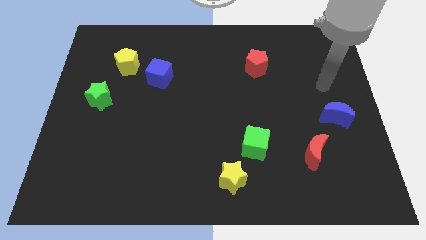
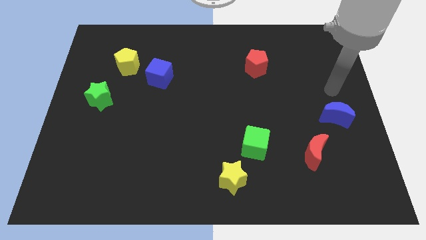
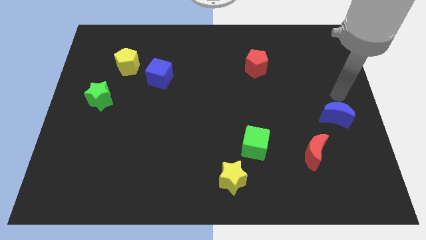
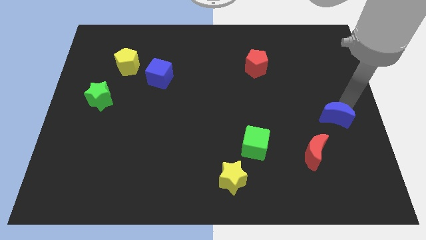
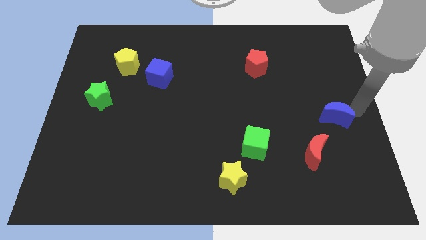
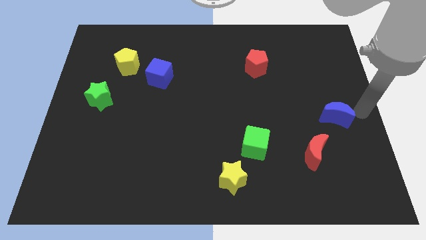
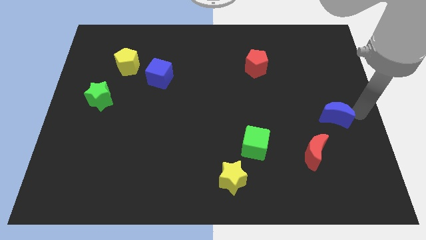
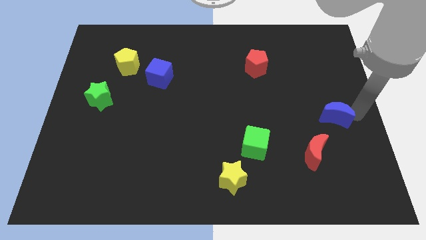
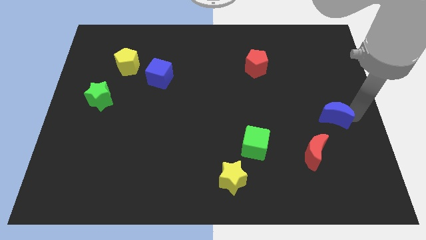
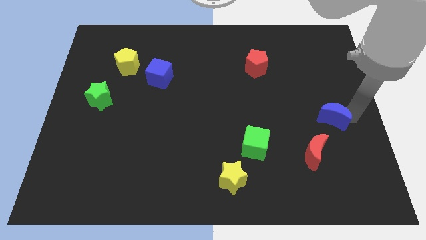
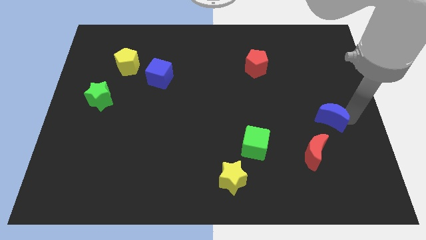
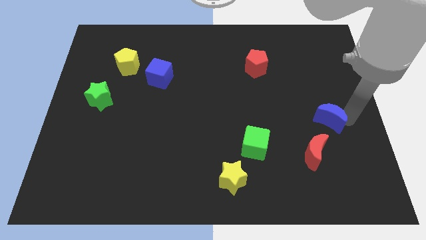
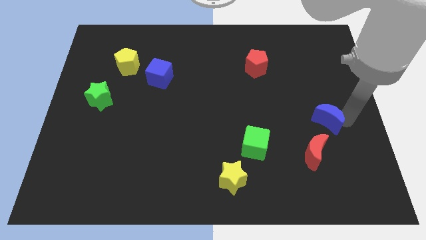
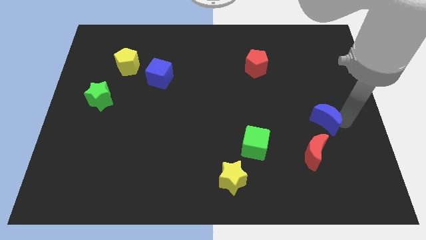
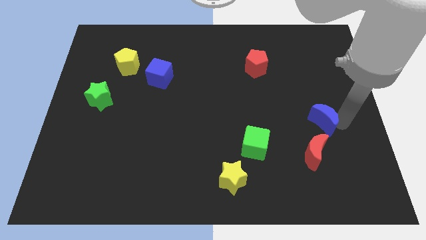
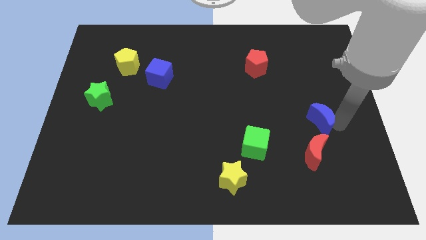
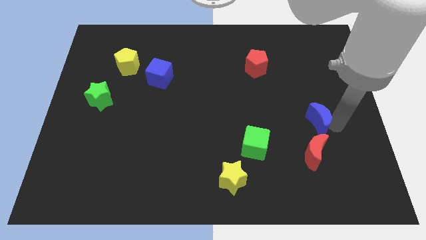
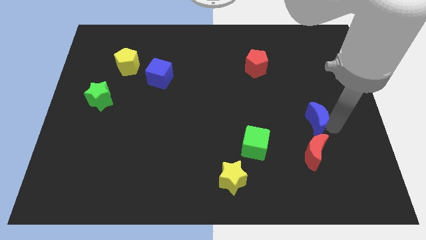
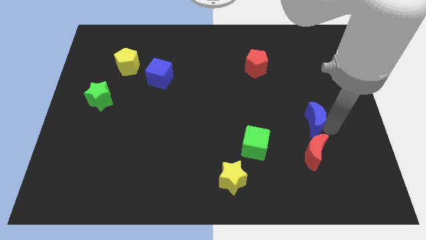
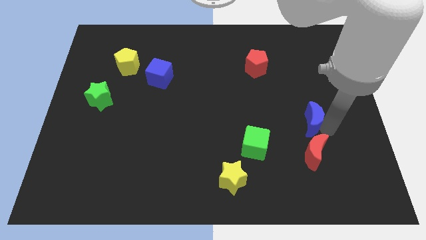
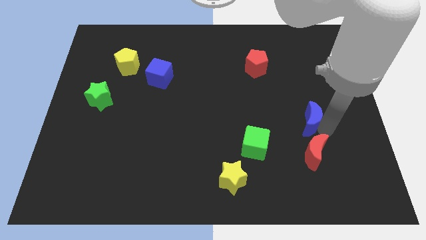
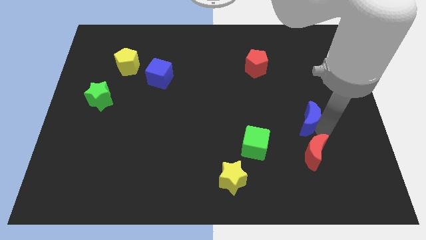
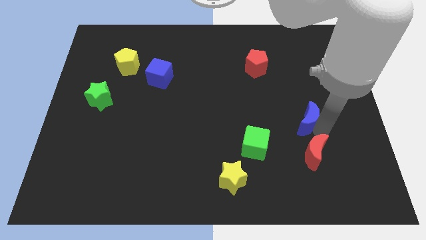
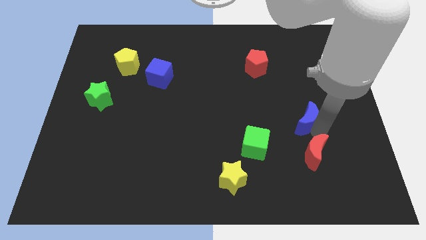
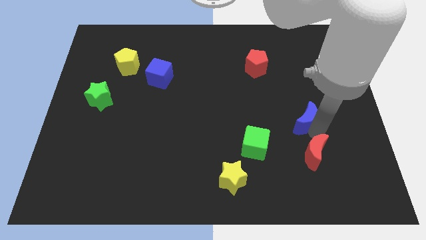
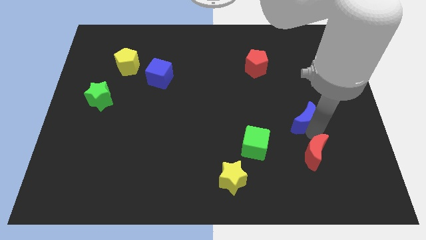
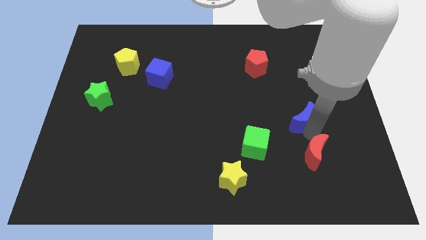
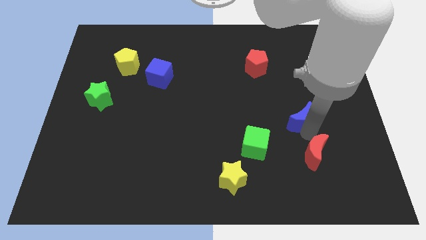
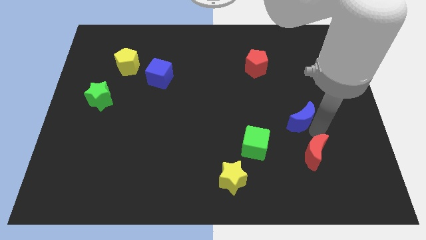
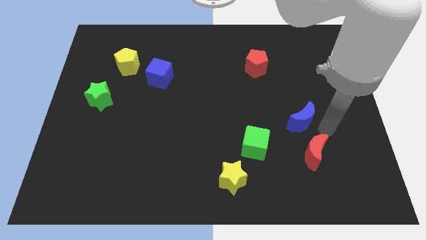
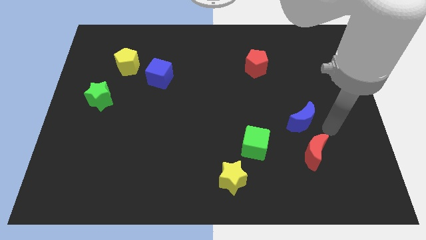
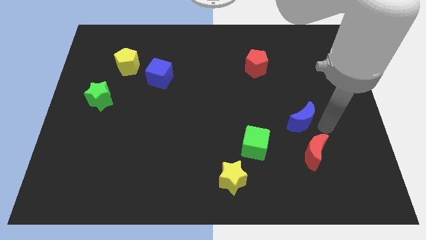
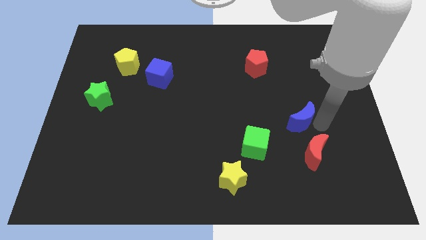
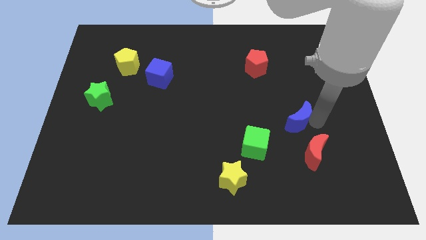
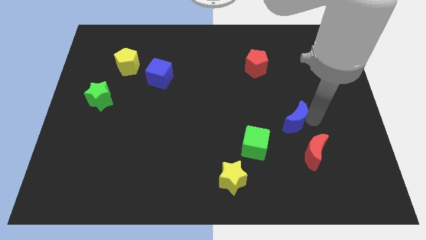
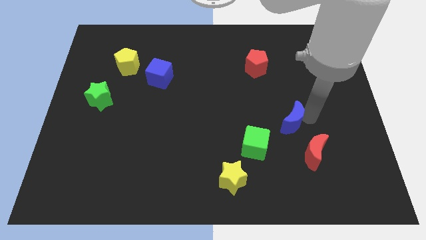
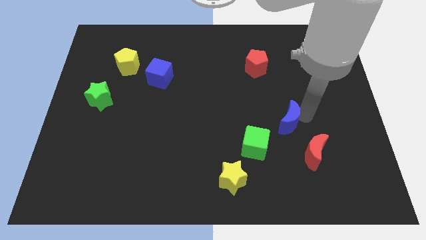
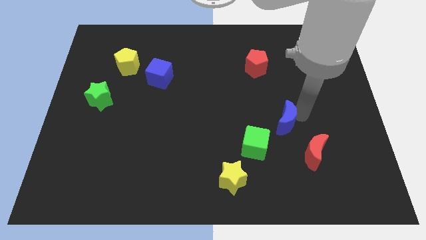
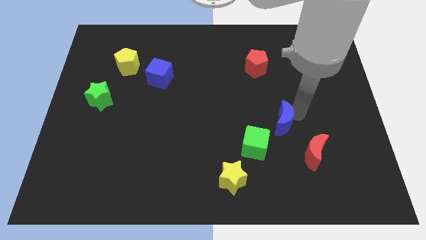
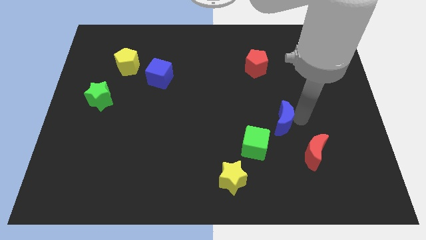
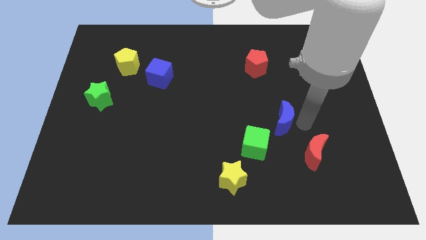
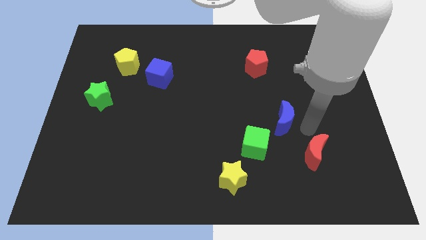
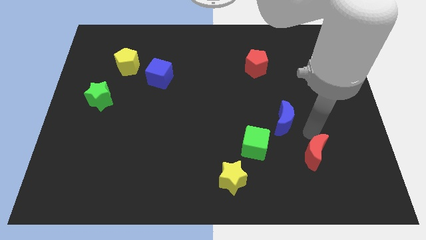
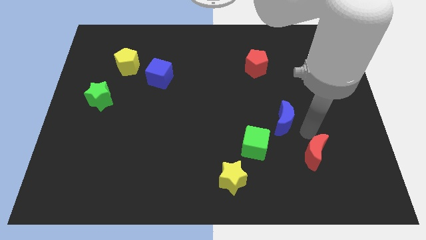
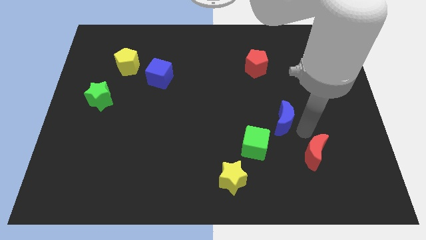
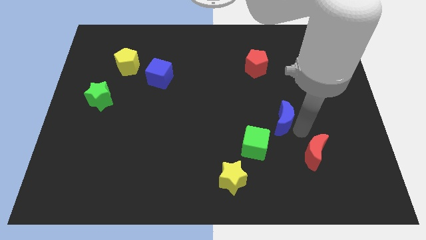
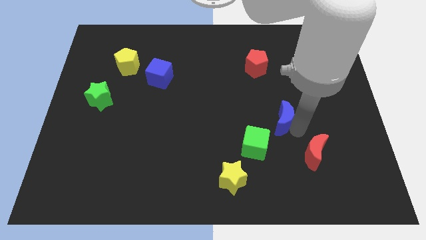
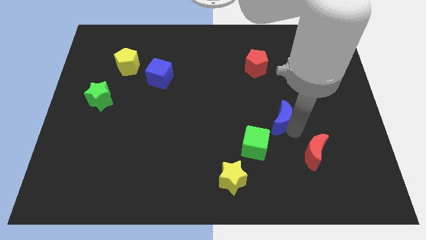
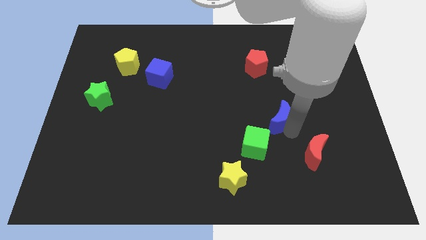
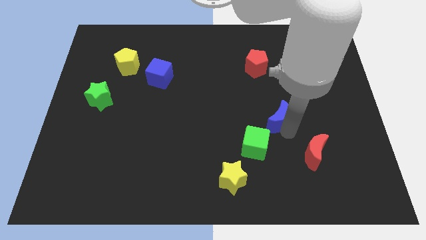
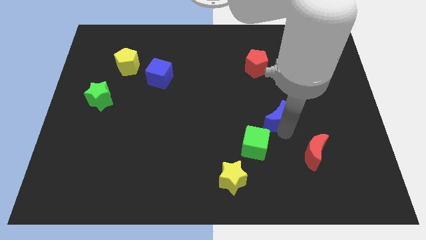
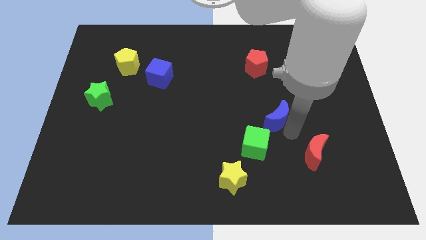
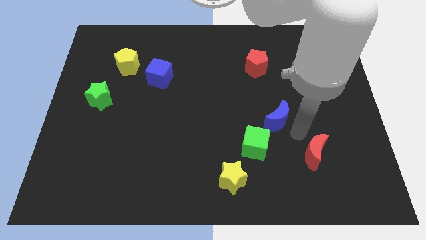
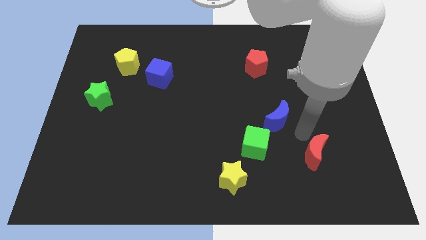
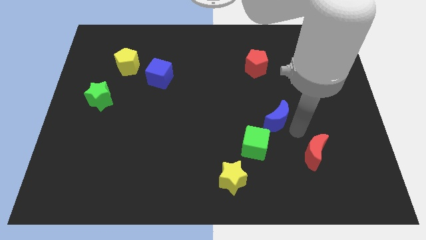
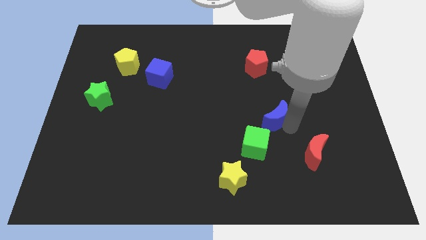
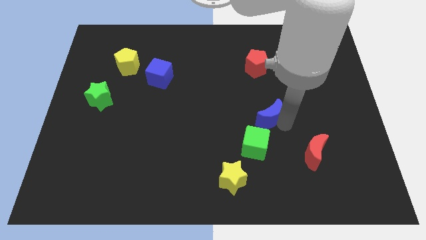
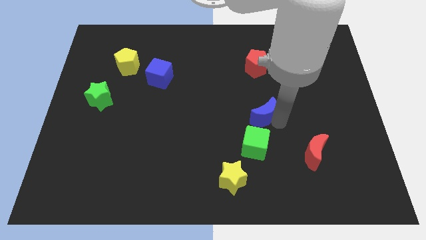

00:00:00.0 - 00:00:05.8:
slide the blue moon to the middle of the board

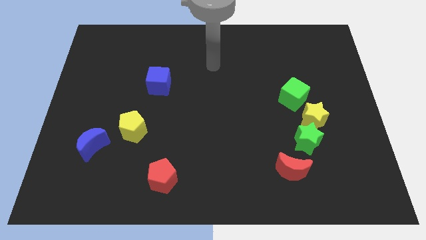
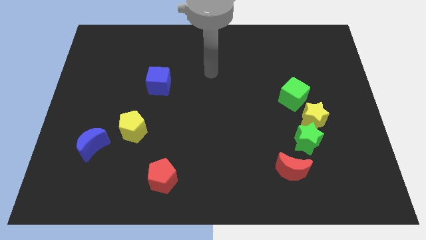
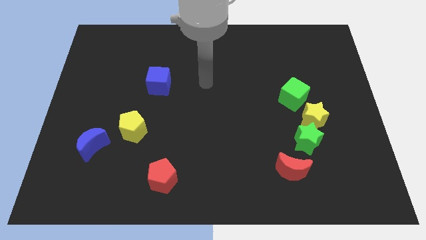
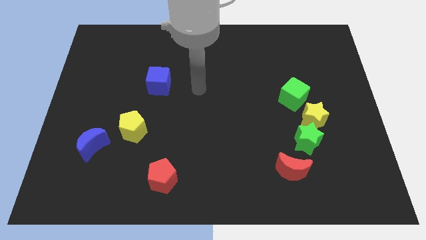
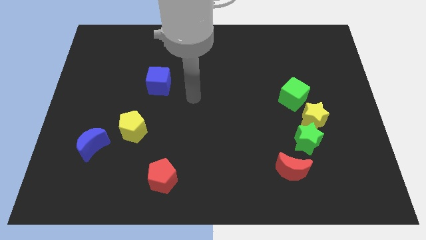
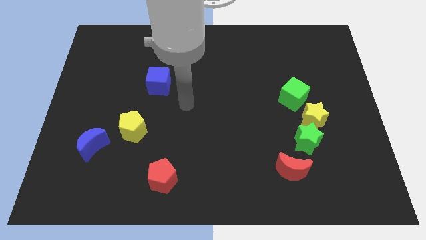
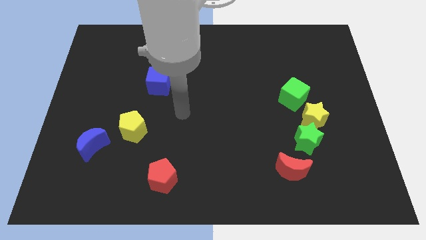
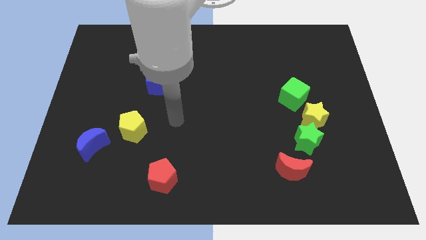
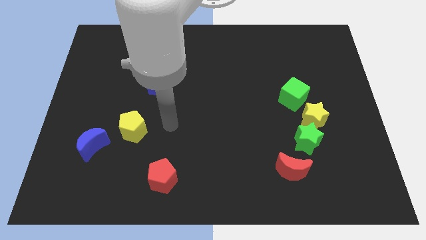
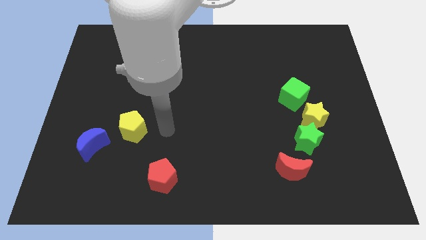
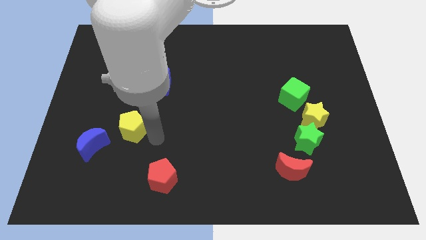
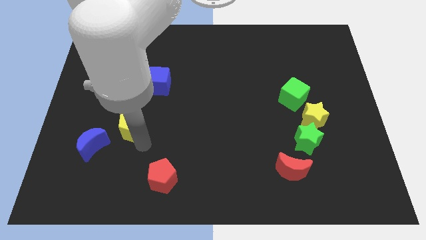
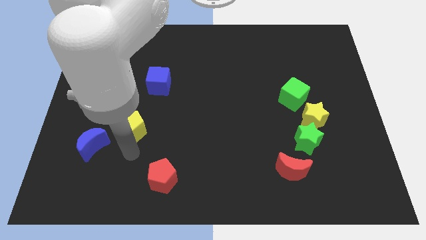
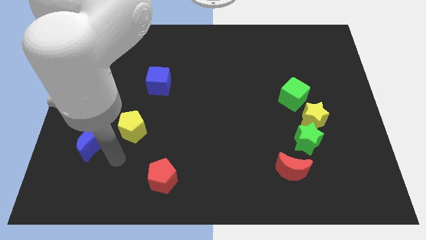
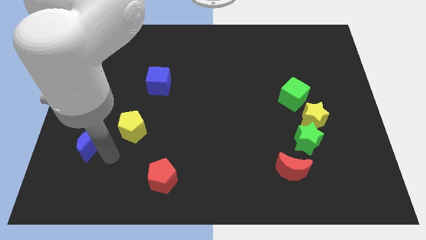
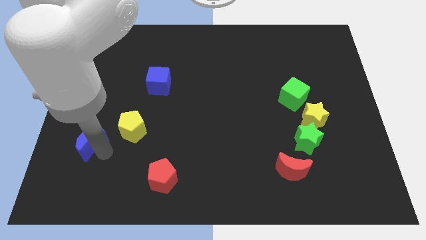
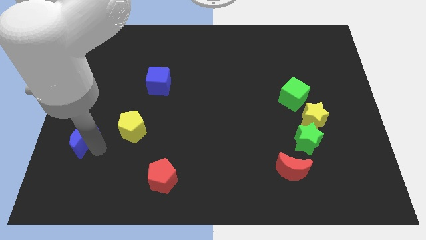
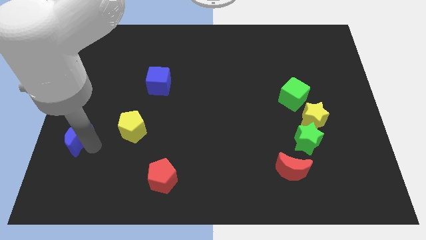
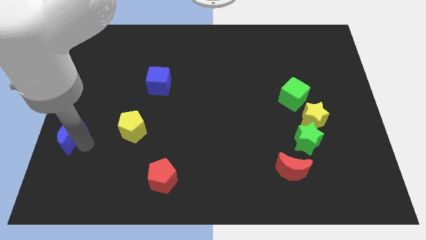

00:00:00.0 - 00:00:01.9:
push the blue moon to the left side
